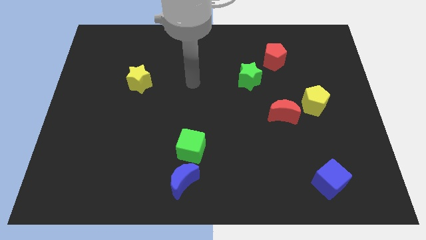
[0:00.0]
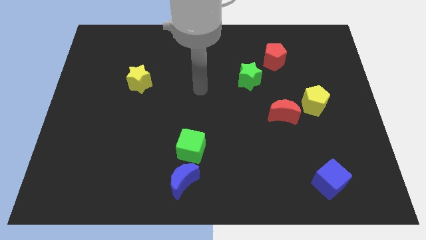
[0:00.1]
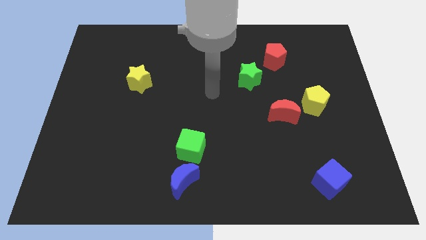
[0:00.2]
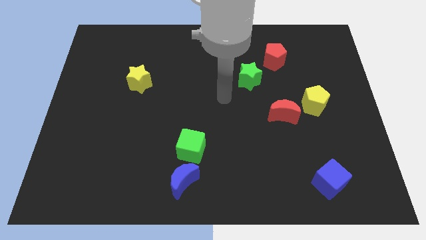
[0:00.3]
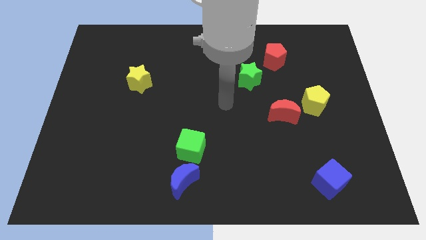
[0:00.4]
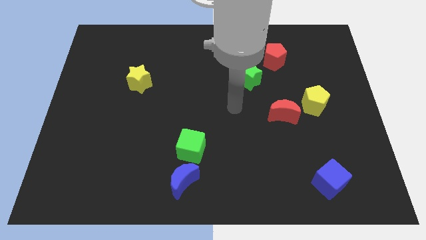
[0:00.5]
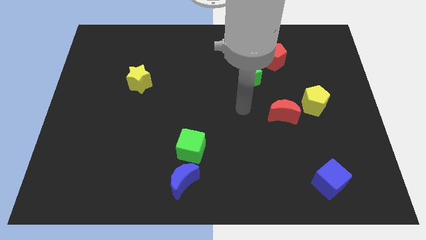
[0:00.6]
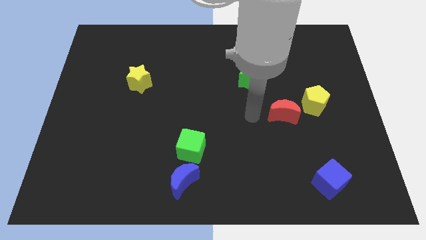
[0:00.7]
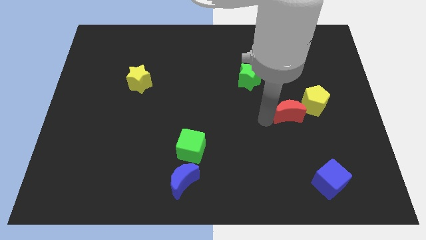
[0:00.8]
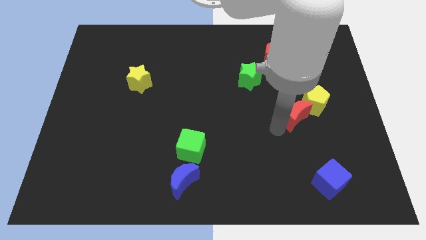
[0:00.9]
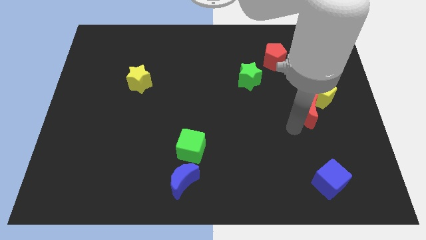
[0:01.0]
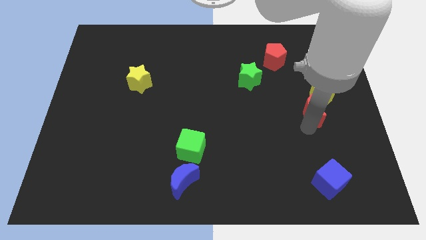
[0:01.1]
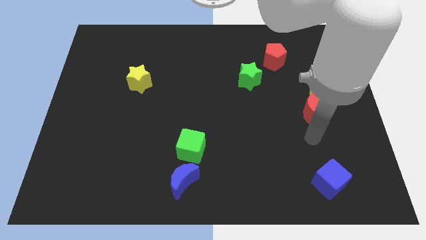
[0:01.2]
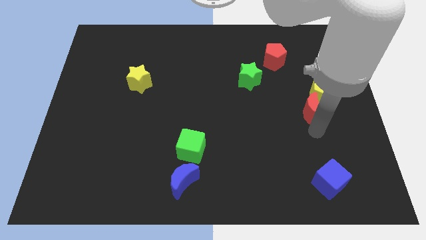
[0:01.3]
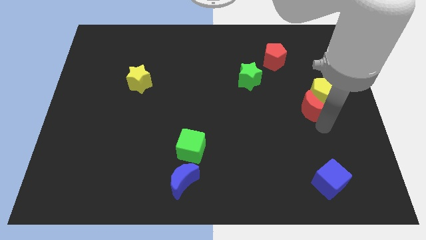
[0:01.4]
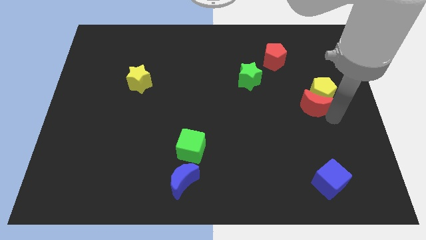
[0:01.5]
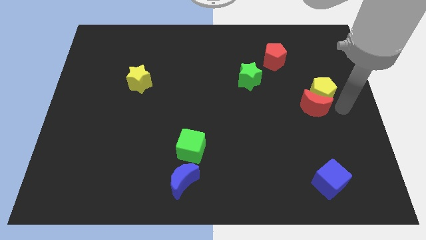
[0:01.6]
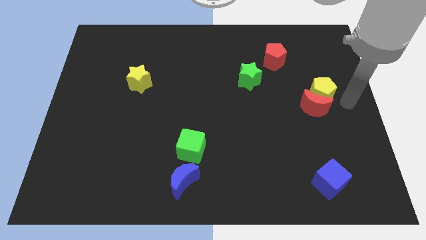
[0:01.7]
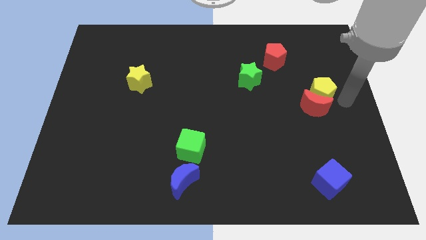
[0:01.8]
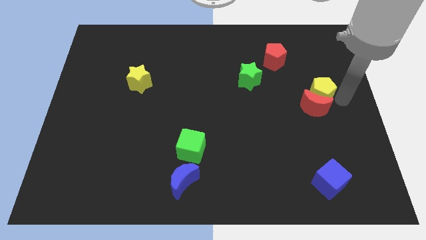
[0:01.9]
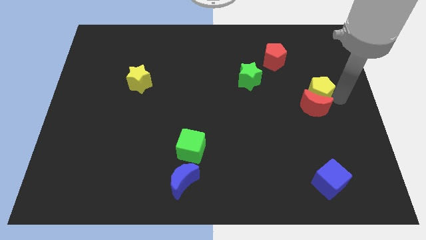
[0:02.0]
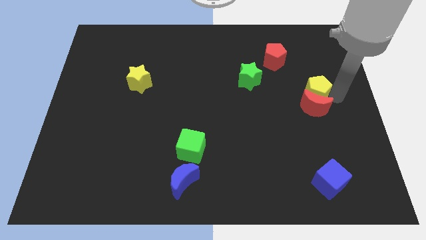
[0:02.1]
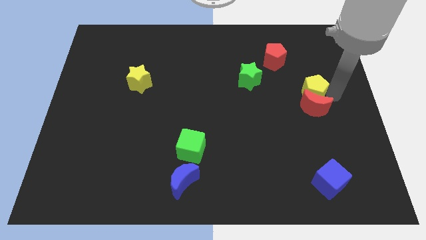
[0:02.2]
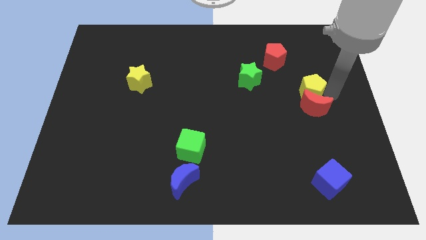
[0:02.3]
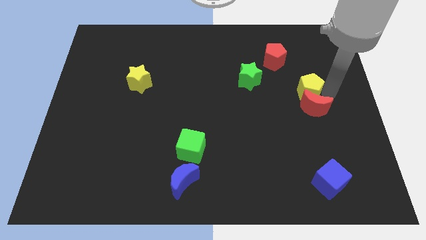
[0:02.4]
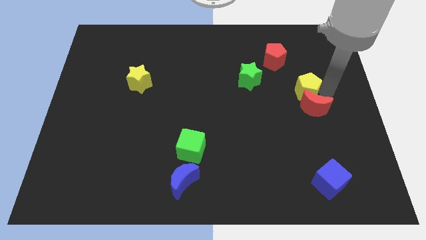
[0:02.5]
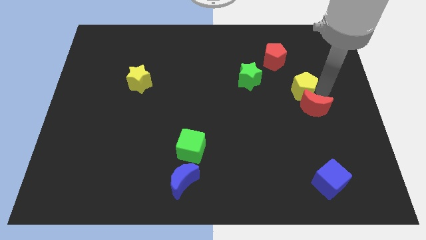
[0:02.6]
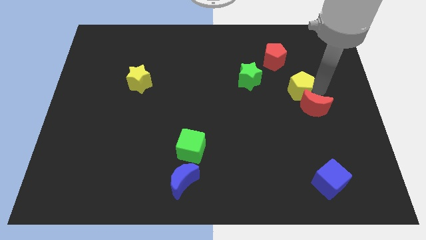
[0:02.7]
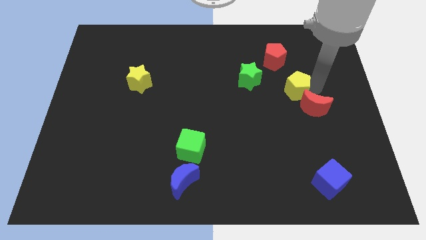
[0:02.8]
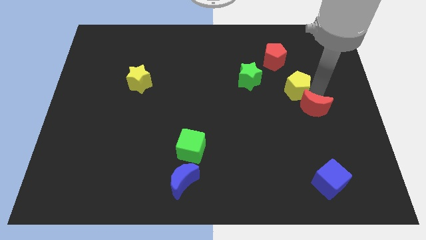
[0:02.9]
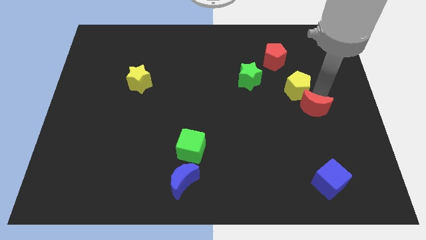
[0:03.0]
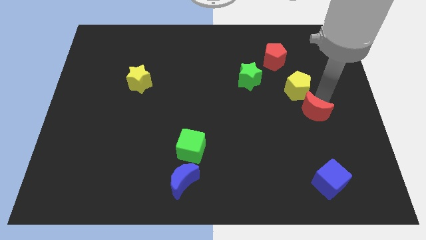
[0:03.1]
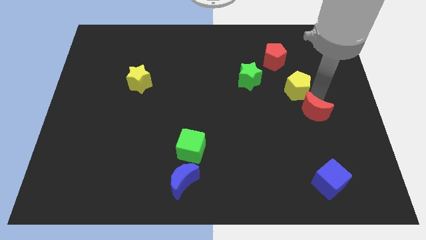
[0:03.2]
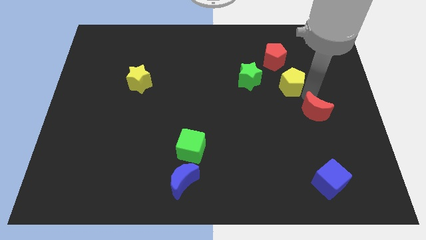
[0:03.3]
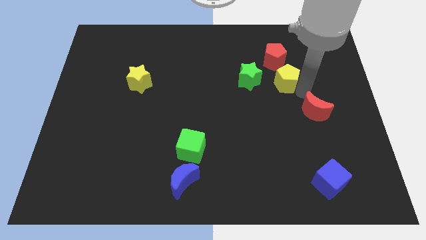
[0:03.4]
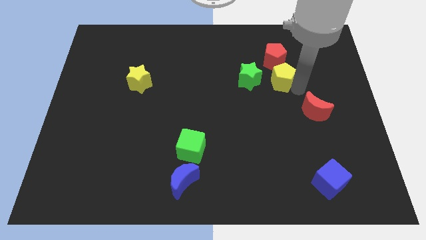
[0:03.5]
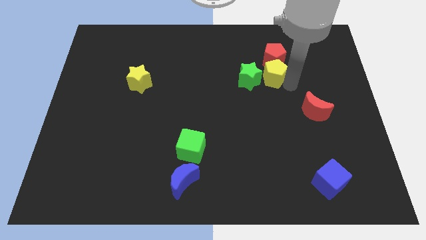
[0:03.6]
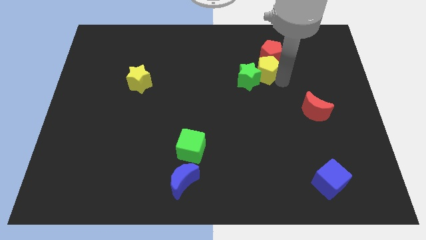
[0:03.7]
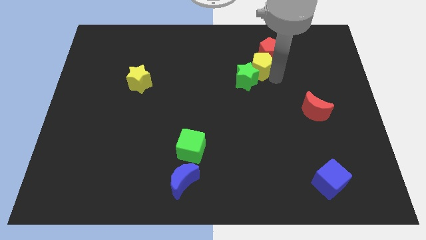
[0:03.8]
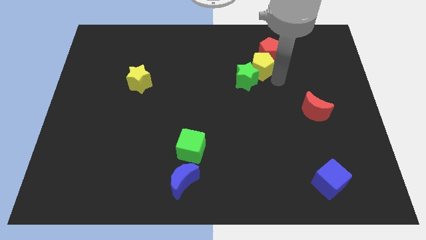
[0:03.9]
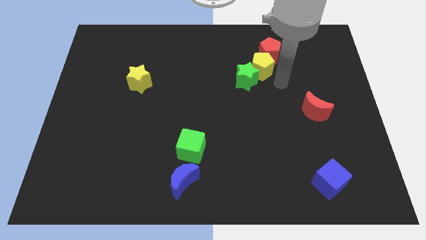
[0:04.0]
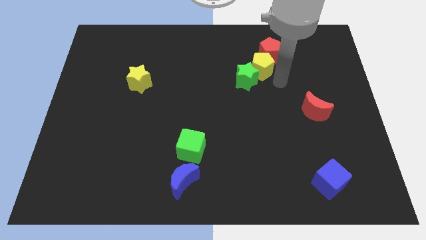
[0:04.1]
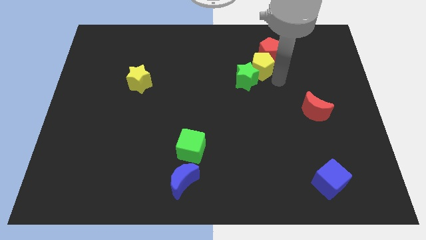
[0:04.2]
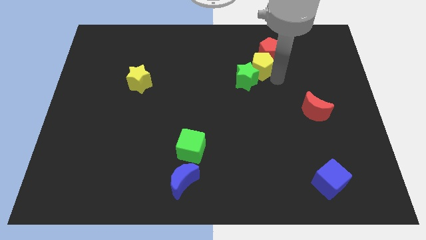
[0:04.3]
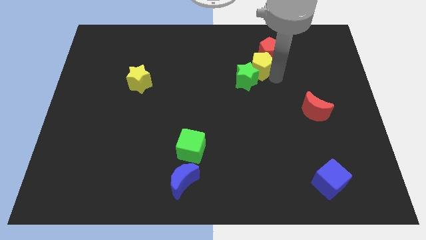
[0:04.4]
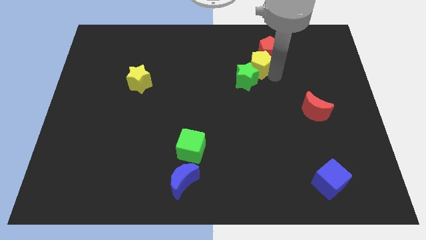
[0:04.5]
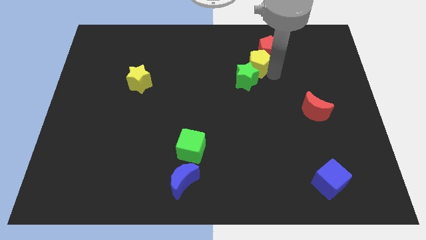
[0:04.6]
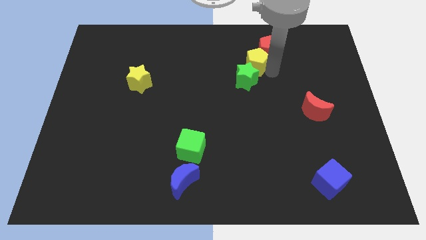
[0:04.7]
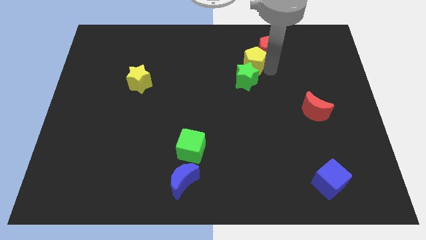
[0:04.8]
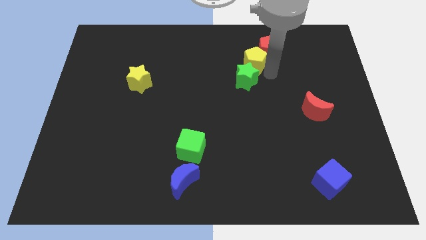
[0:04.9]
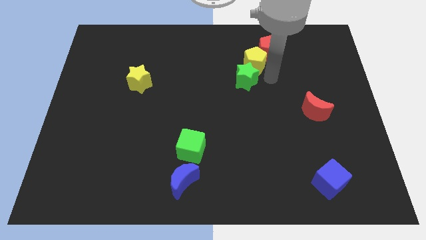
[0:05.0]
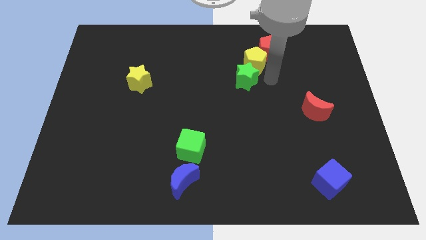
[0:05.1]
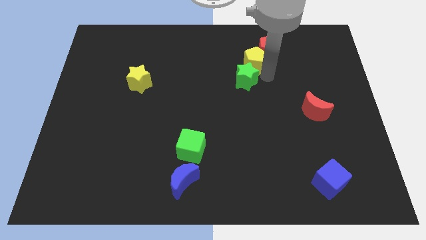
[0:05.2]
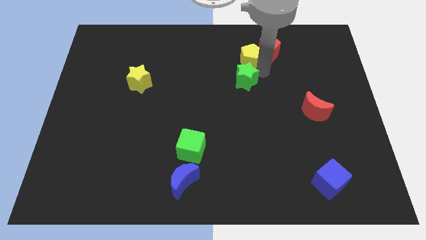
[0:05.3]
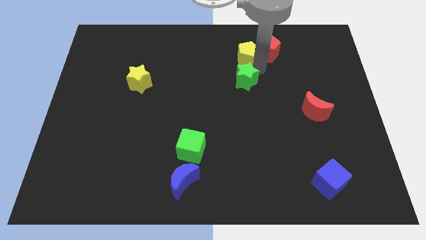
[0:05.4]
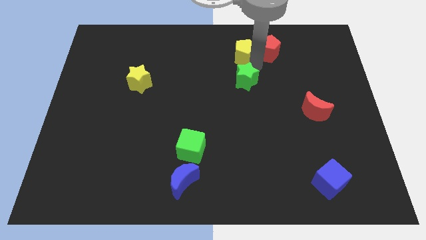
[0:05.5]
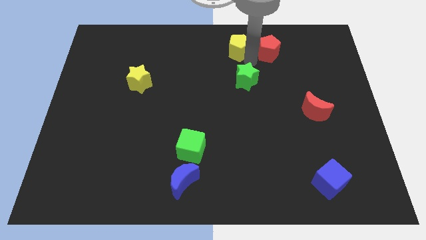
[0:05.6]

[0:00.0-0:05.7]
slide the yellow pentagon to the top

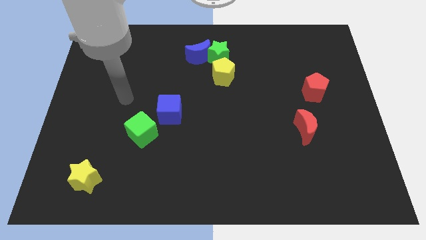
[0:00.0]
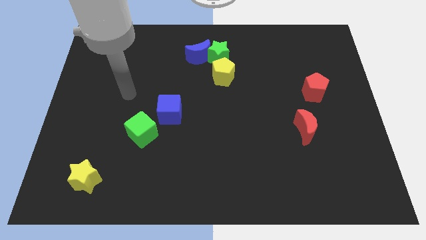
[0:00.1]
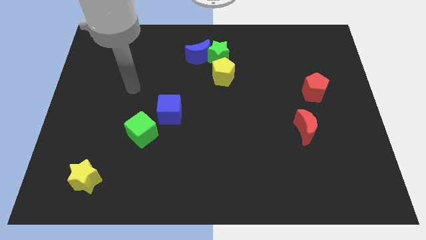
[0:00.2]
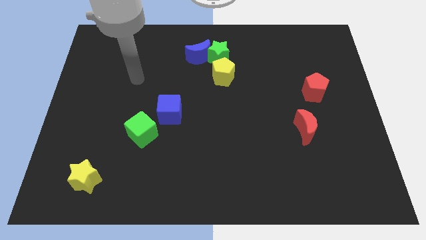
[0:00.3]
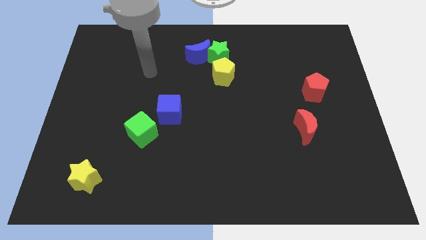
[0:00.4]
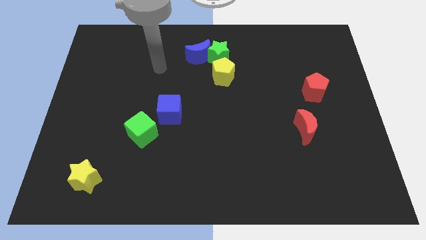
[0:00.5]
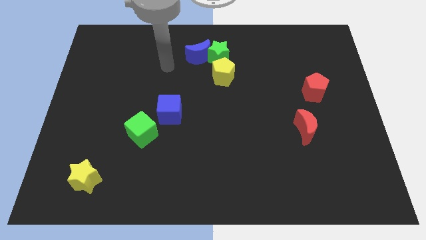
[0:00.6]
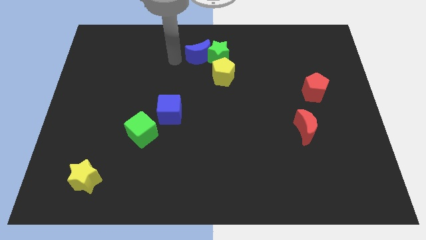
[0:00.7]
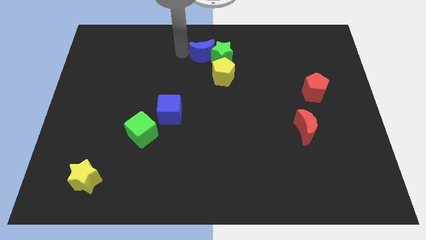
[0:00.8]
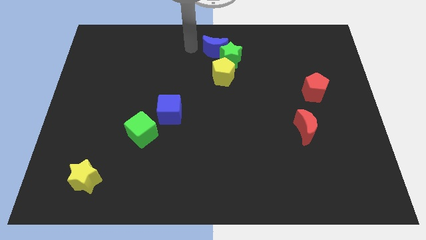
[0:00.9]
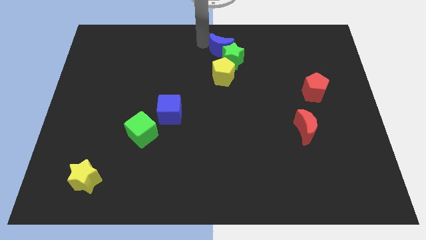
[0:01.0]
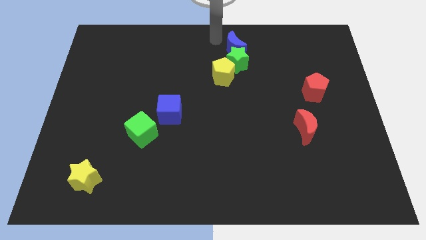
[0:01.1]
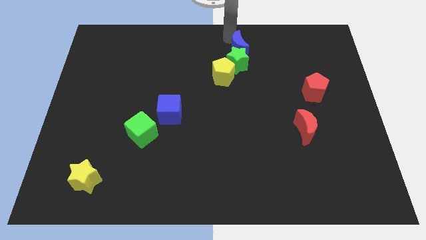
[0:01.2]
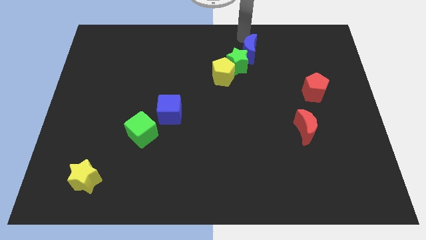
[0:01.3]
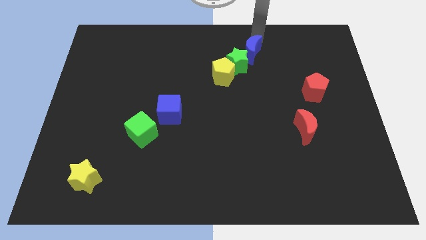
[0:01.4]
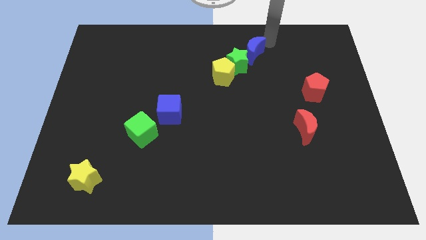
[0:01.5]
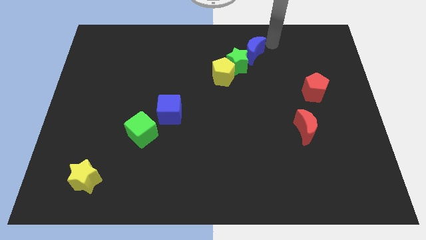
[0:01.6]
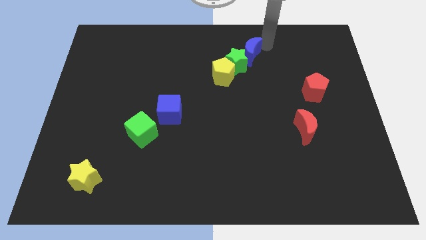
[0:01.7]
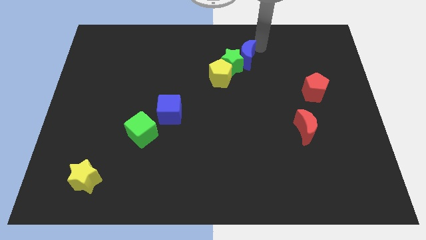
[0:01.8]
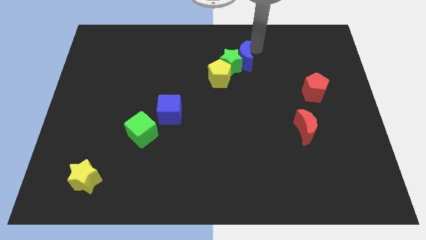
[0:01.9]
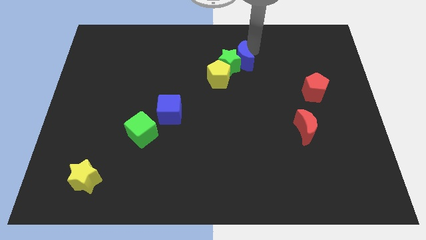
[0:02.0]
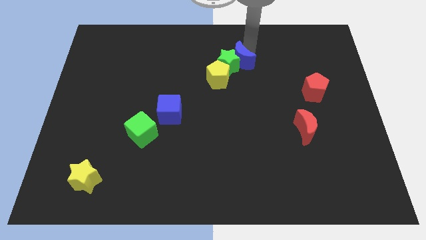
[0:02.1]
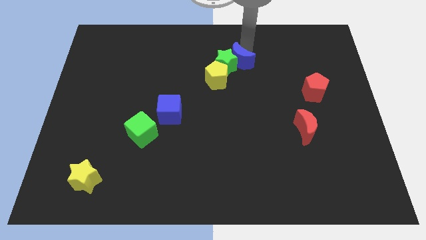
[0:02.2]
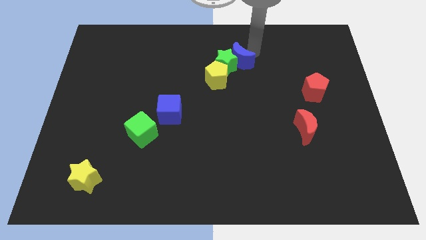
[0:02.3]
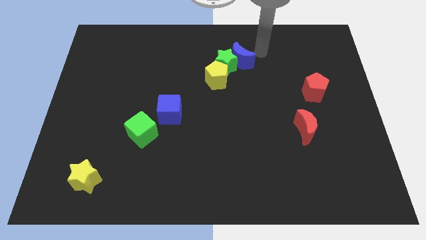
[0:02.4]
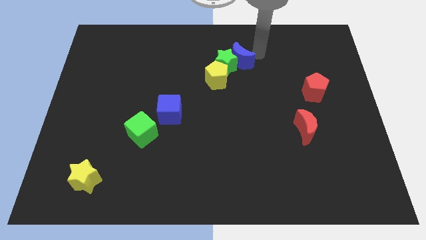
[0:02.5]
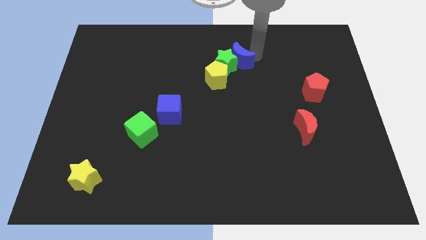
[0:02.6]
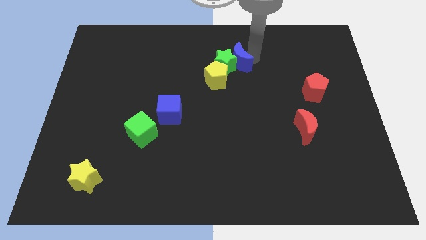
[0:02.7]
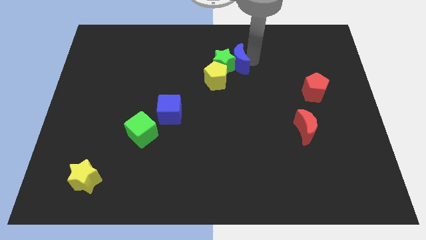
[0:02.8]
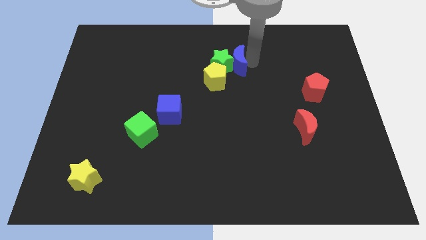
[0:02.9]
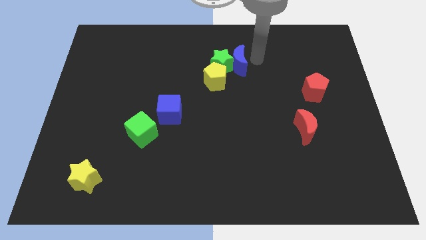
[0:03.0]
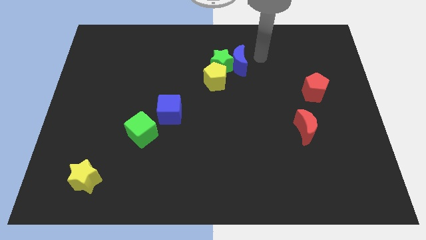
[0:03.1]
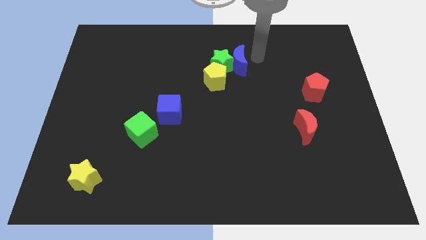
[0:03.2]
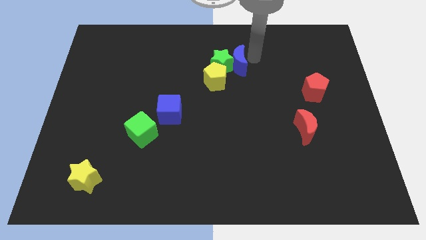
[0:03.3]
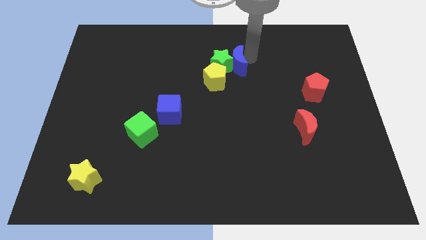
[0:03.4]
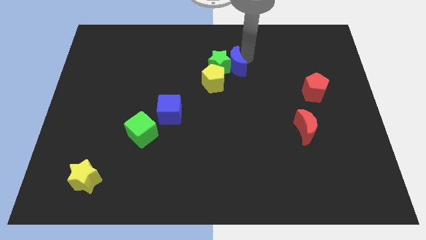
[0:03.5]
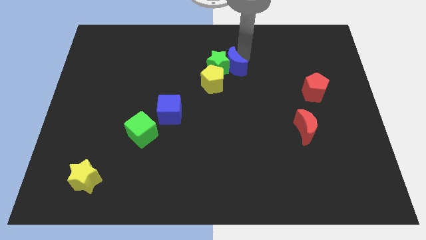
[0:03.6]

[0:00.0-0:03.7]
put the blue moon to the middle of the board
